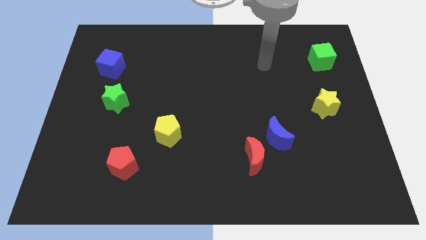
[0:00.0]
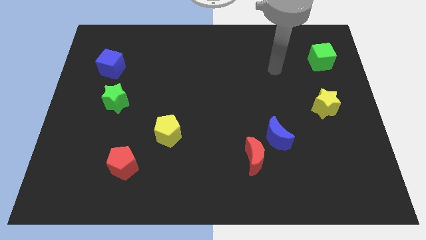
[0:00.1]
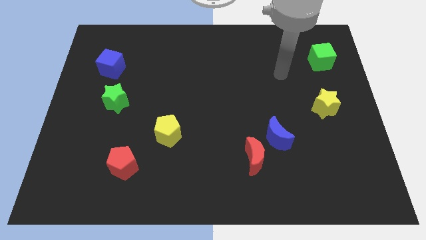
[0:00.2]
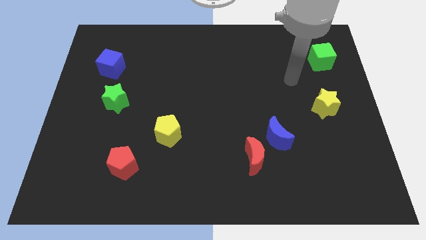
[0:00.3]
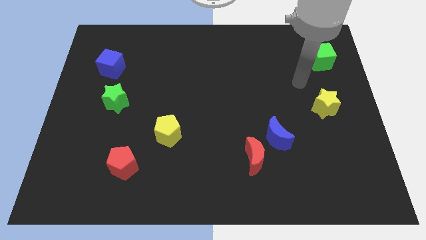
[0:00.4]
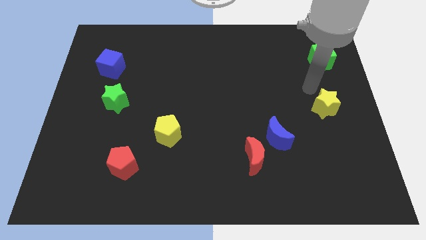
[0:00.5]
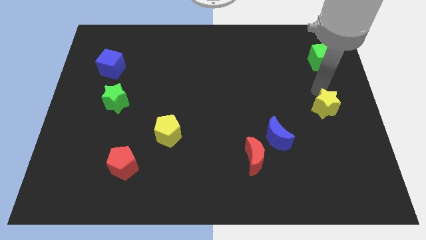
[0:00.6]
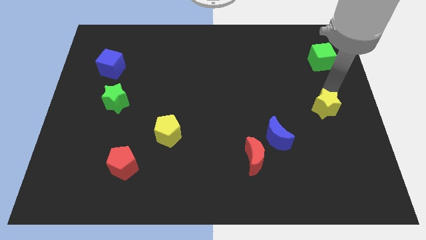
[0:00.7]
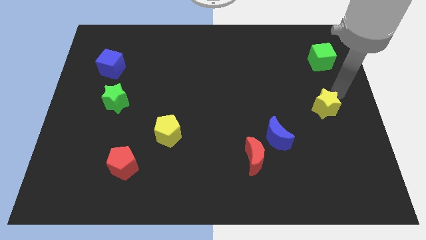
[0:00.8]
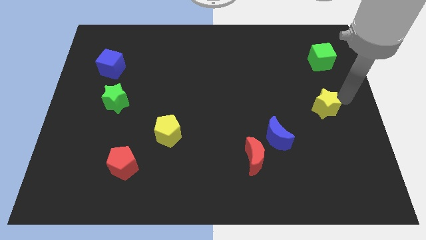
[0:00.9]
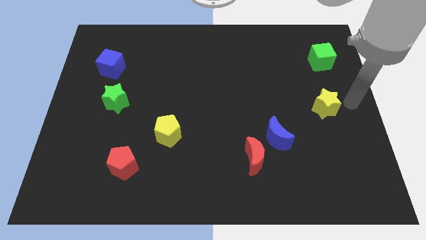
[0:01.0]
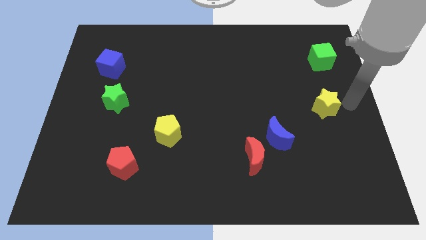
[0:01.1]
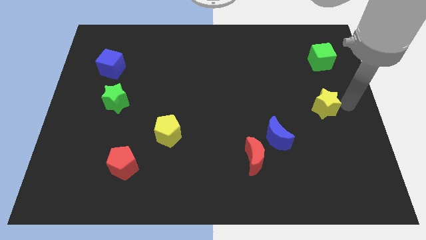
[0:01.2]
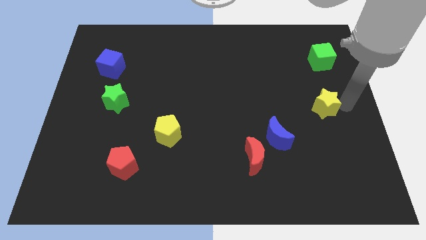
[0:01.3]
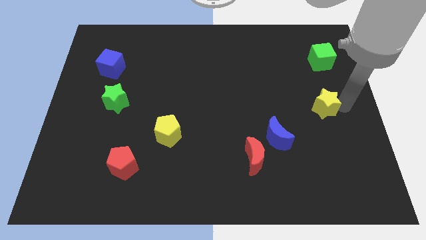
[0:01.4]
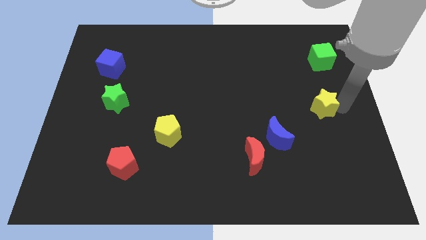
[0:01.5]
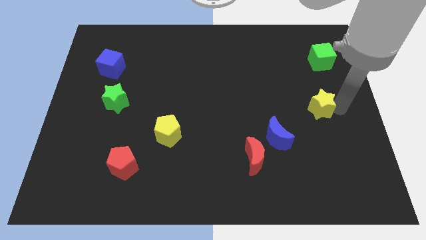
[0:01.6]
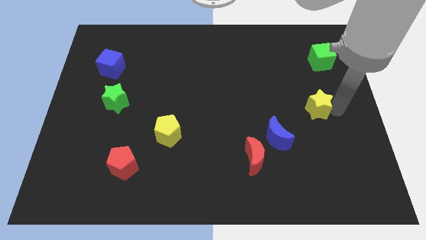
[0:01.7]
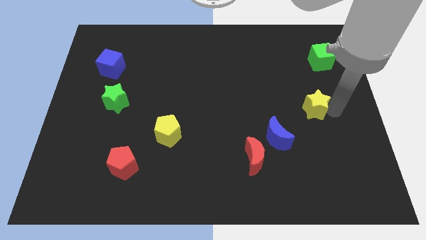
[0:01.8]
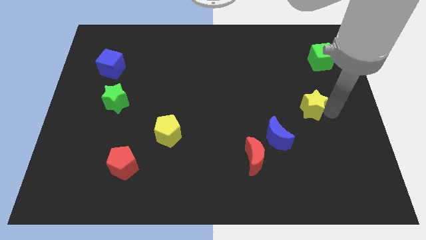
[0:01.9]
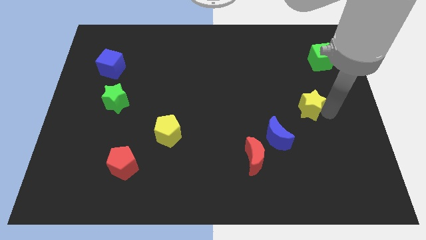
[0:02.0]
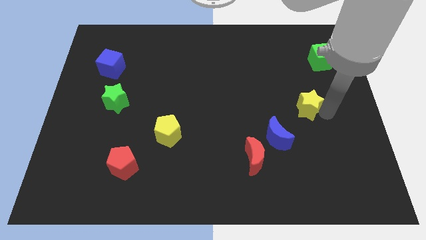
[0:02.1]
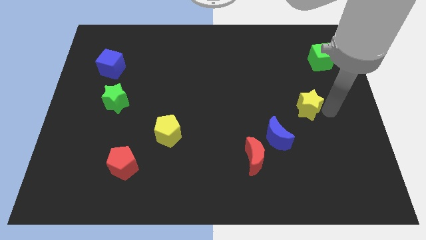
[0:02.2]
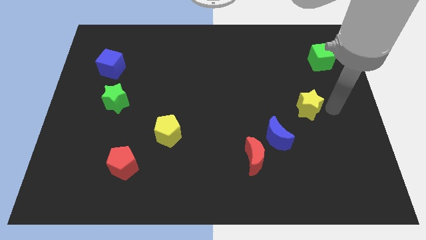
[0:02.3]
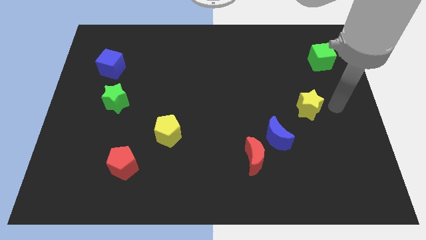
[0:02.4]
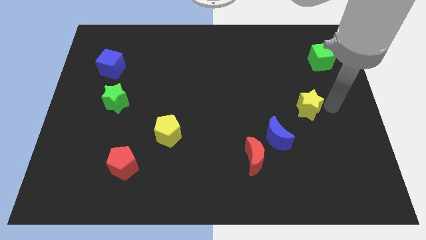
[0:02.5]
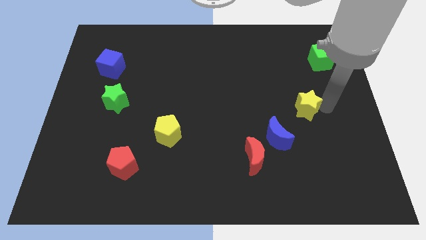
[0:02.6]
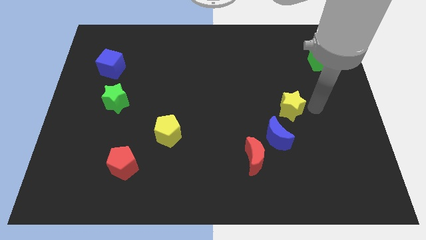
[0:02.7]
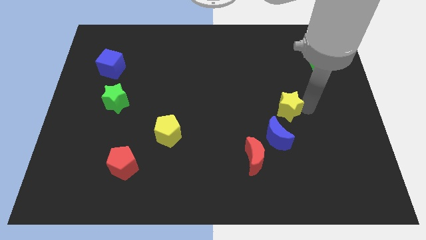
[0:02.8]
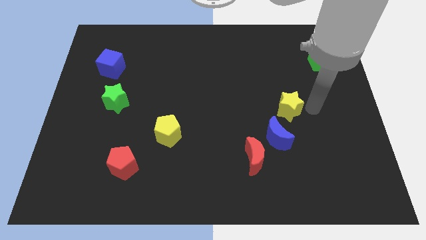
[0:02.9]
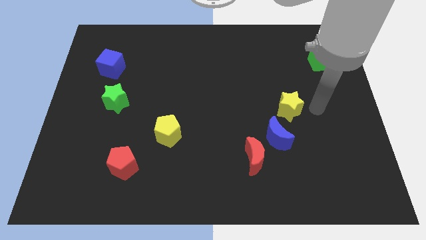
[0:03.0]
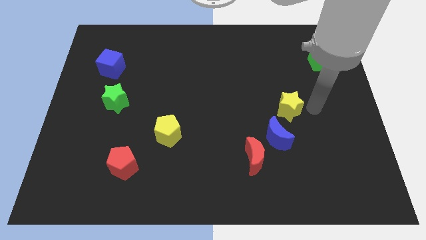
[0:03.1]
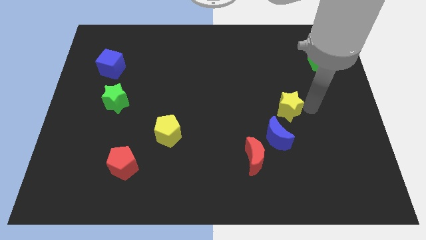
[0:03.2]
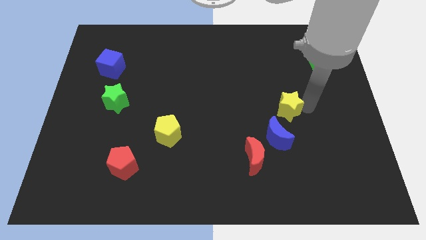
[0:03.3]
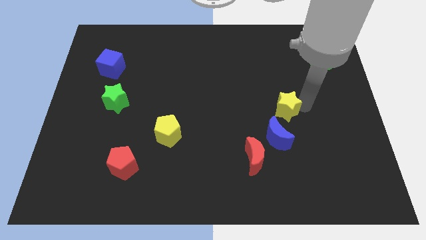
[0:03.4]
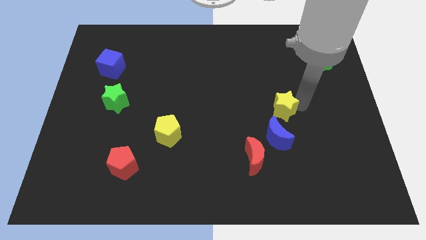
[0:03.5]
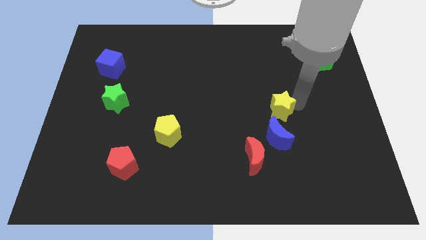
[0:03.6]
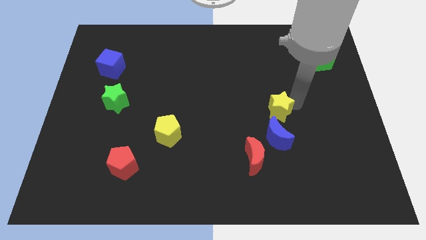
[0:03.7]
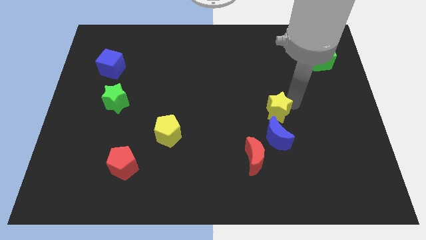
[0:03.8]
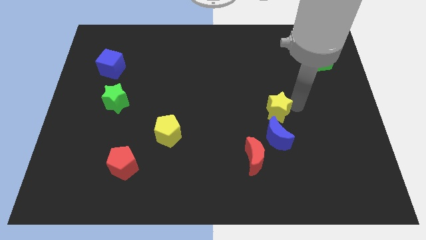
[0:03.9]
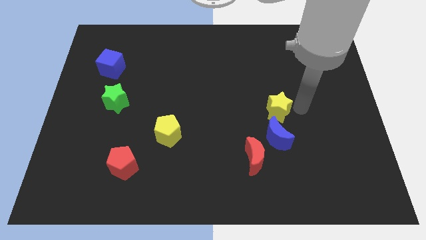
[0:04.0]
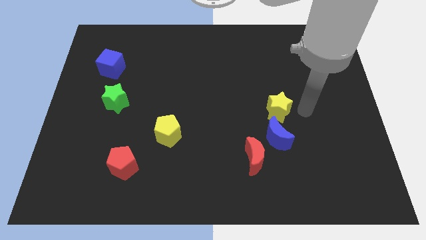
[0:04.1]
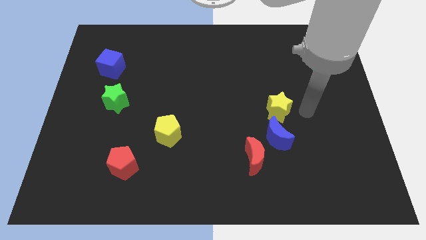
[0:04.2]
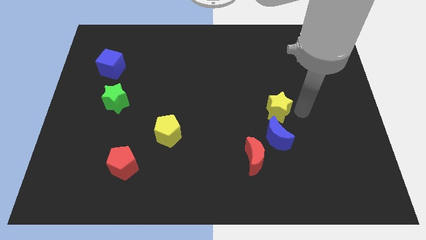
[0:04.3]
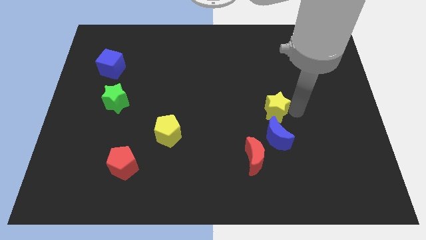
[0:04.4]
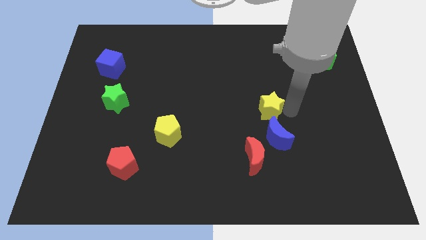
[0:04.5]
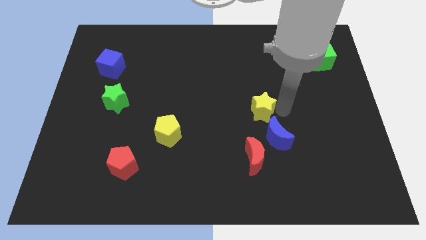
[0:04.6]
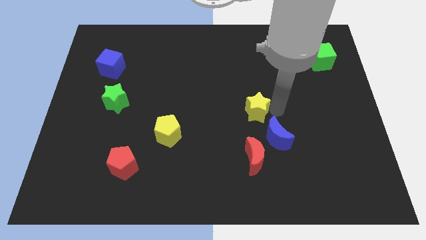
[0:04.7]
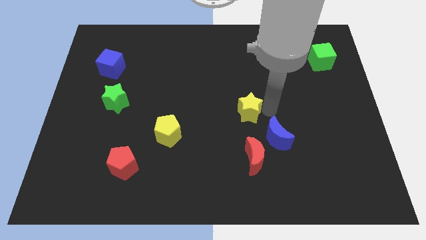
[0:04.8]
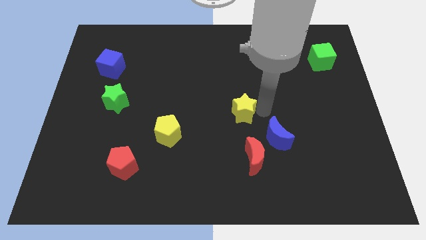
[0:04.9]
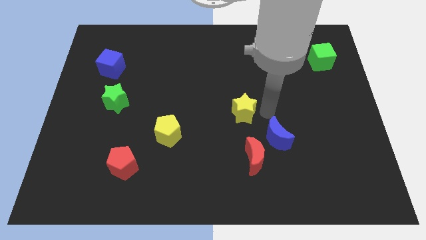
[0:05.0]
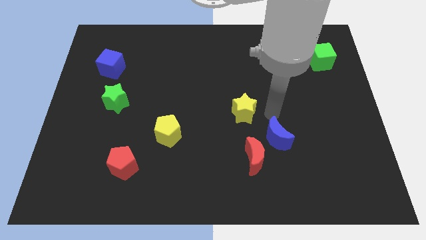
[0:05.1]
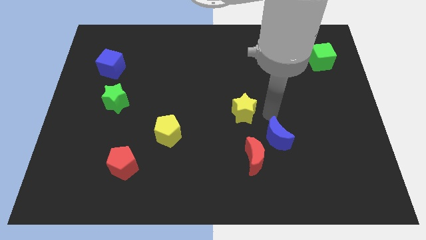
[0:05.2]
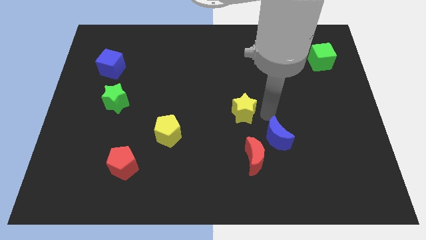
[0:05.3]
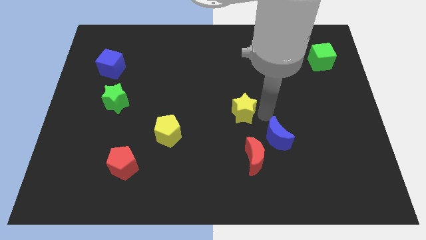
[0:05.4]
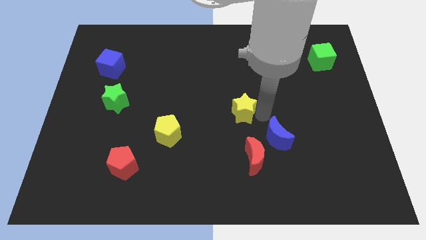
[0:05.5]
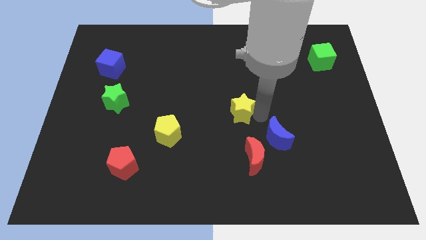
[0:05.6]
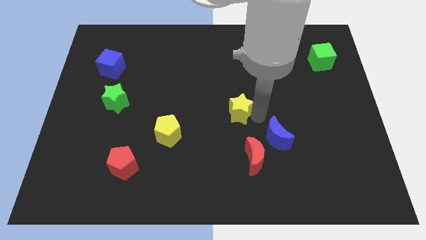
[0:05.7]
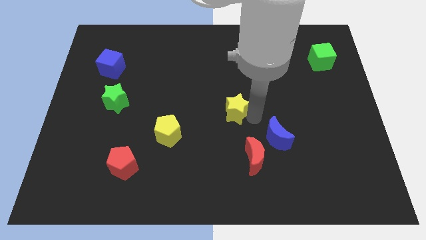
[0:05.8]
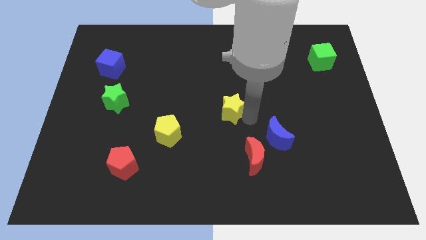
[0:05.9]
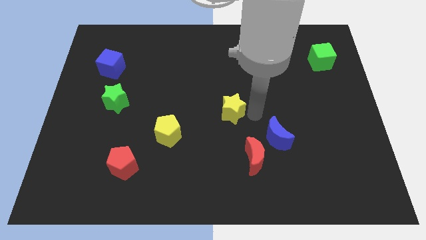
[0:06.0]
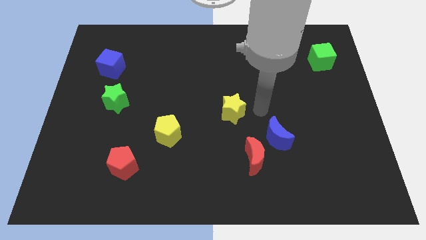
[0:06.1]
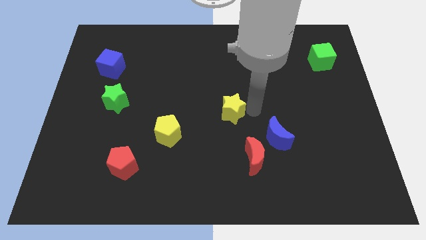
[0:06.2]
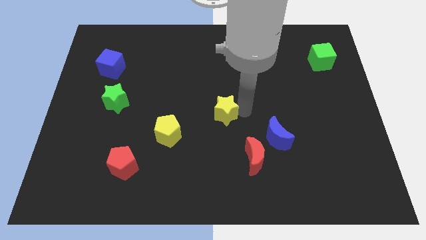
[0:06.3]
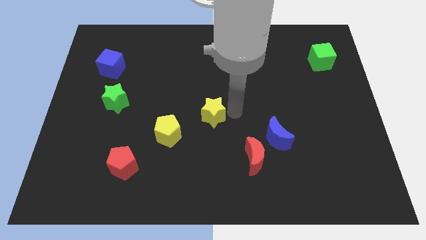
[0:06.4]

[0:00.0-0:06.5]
put the yellow star diagonally up and to the right of the yellow pentagon
